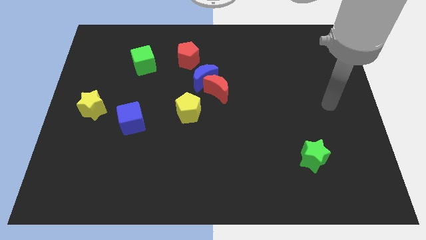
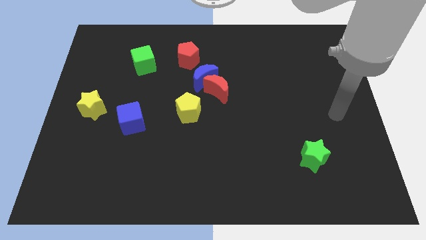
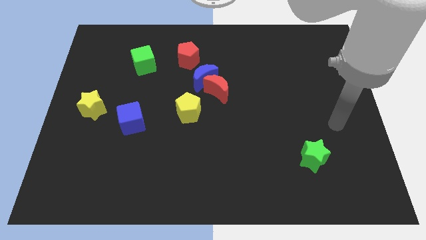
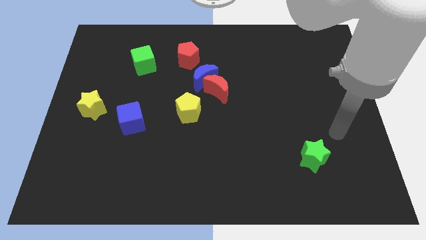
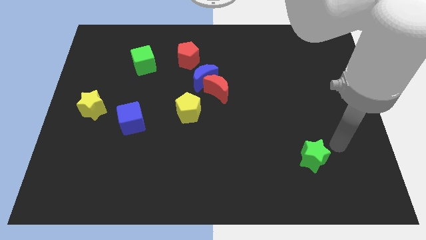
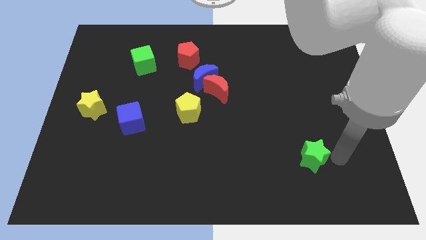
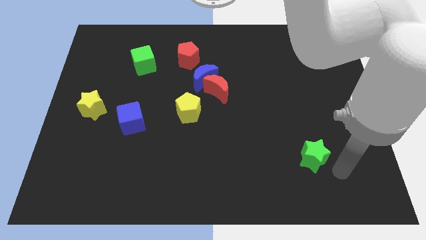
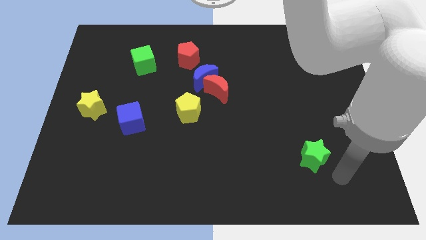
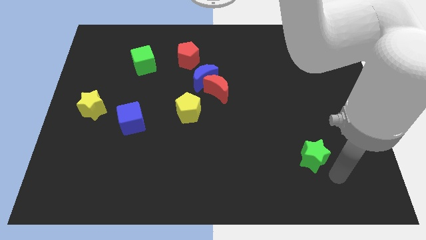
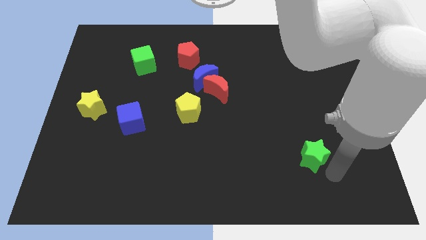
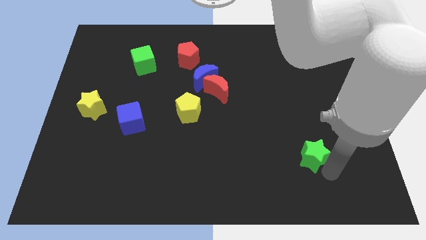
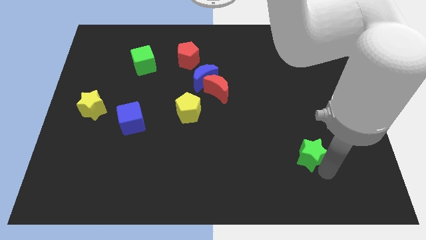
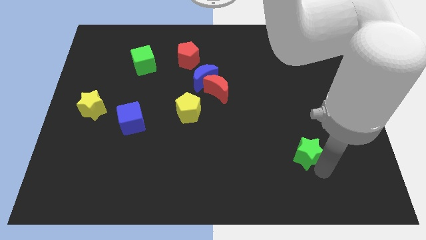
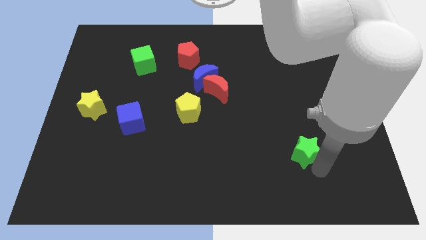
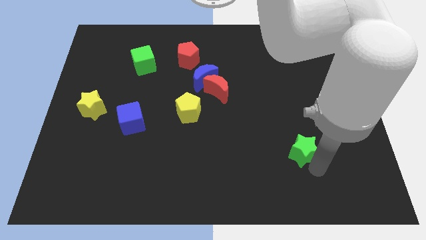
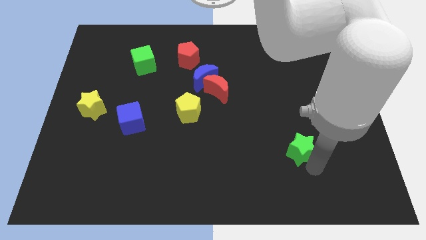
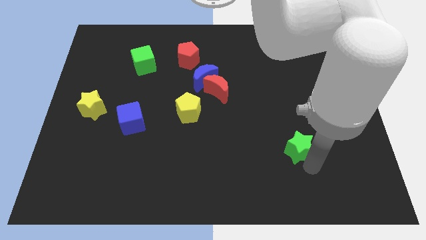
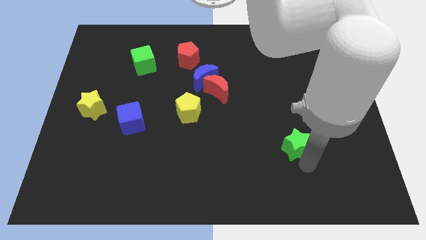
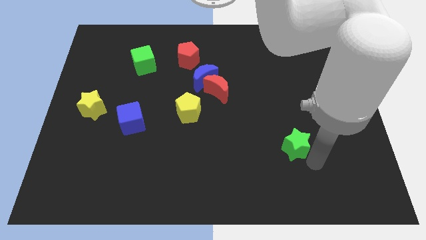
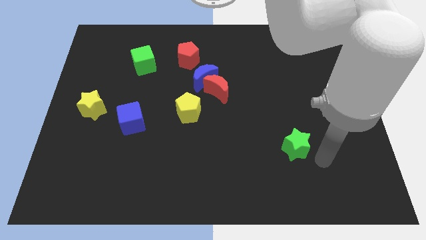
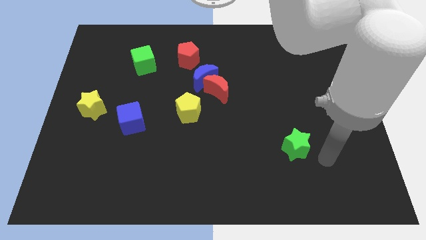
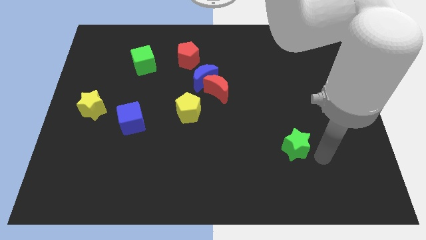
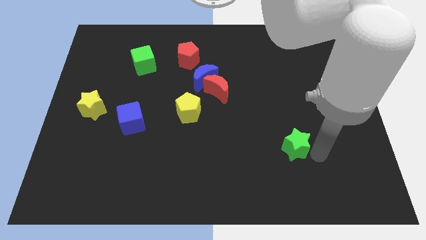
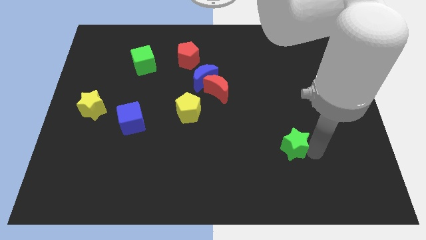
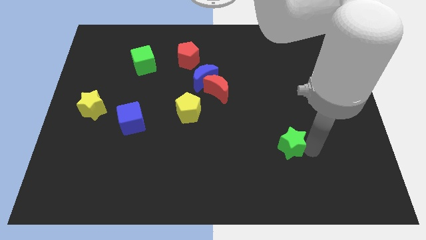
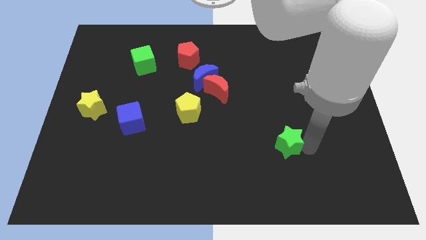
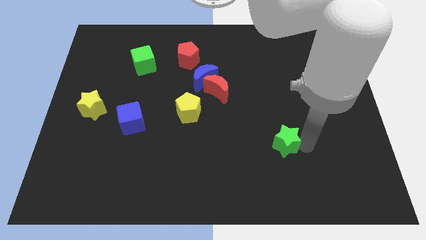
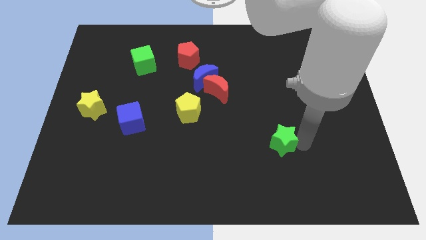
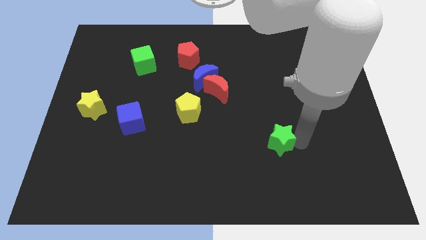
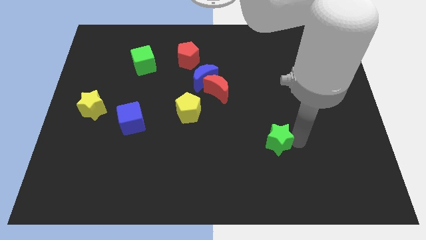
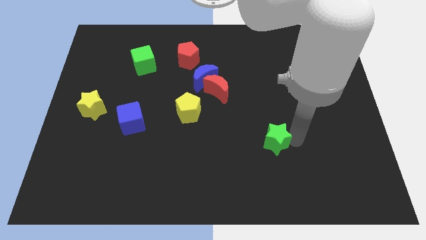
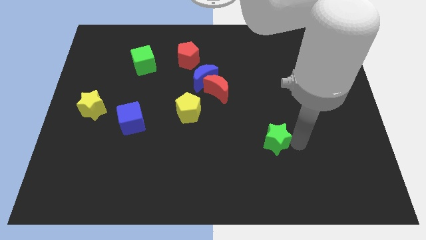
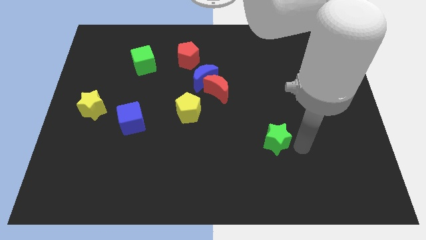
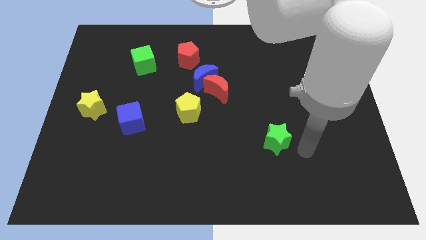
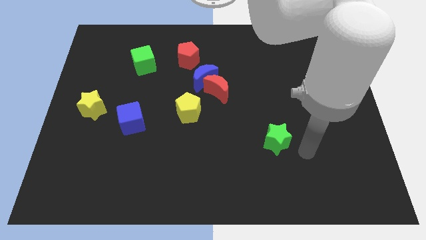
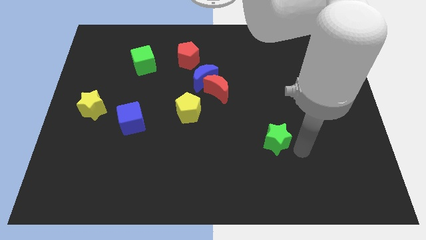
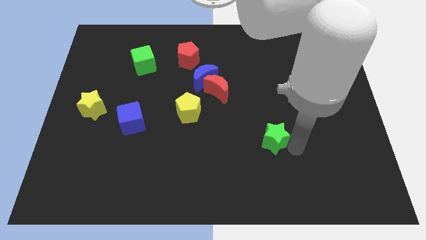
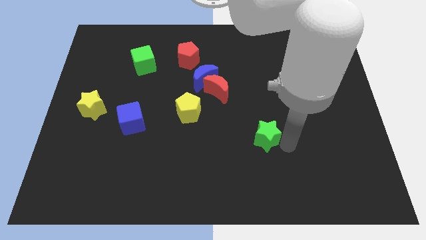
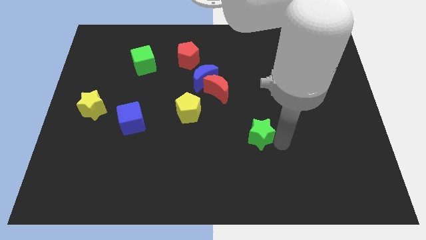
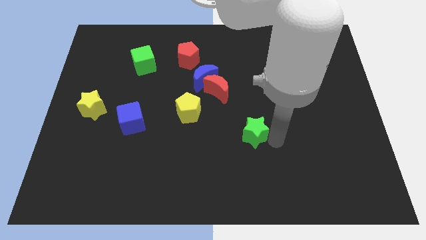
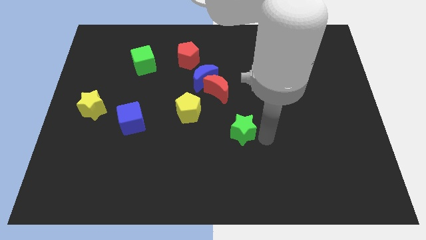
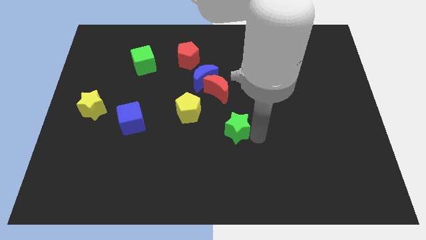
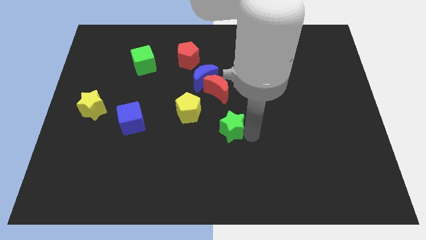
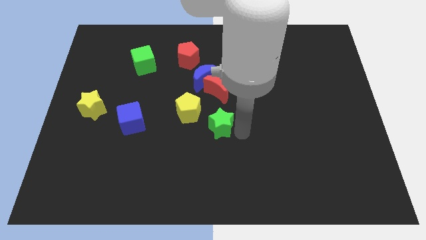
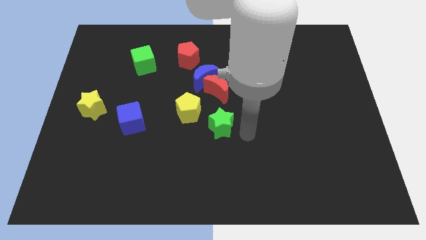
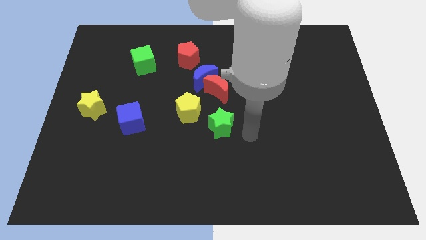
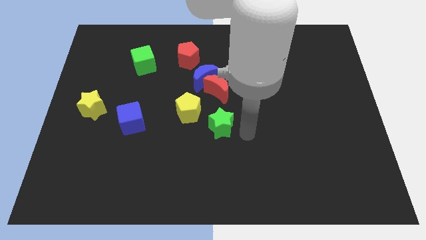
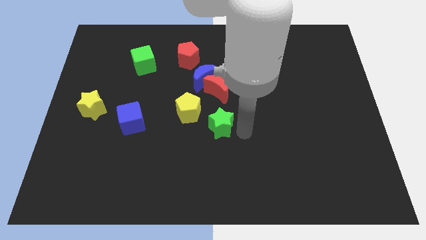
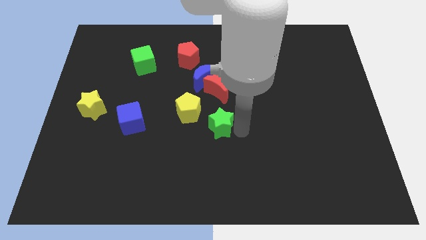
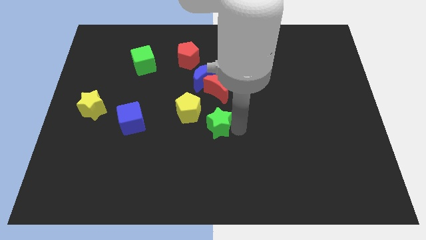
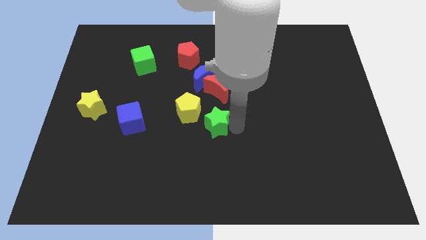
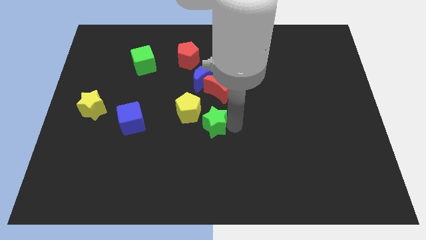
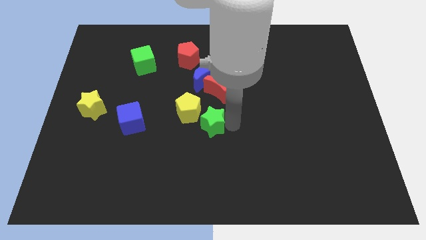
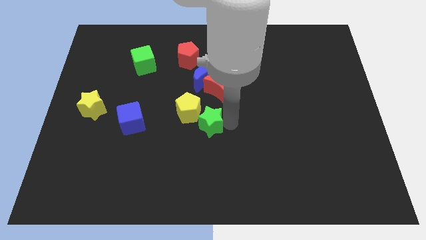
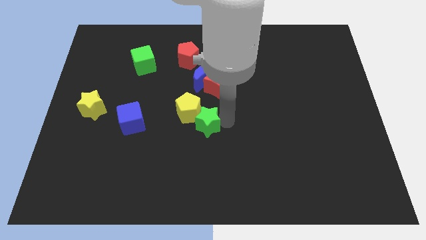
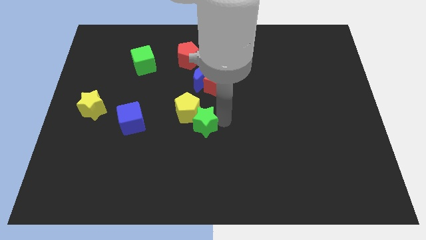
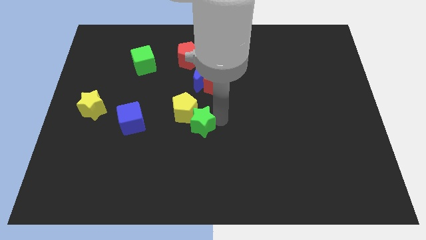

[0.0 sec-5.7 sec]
slide the green star right of the blue cube

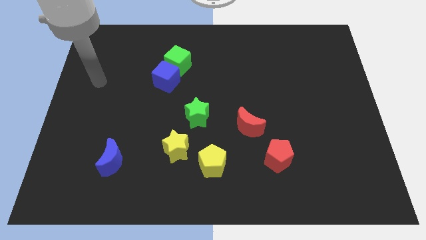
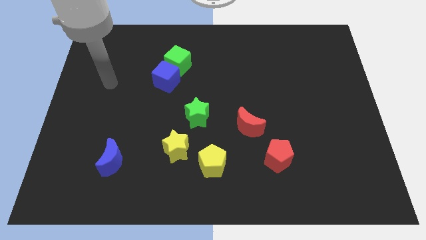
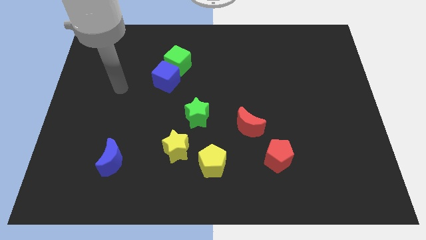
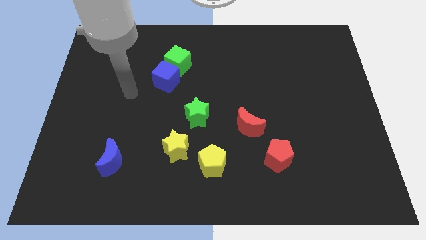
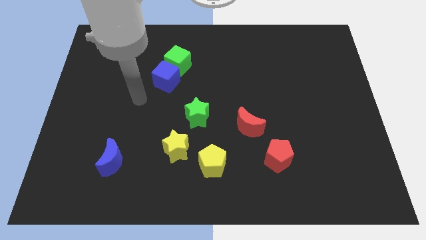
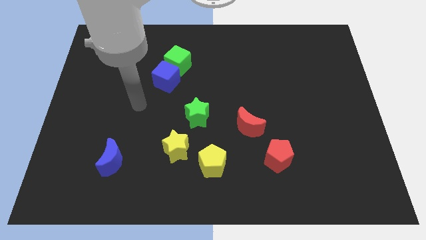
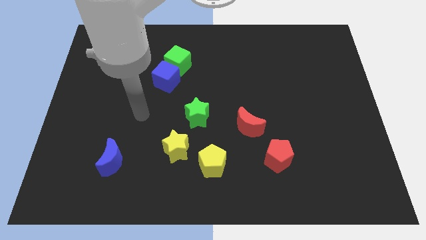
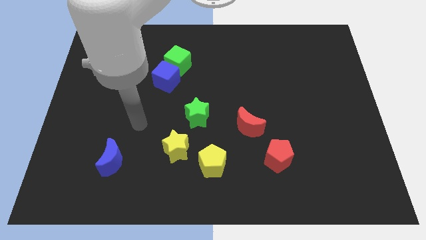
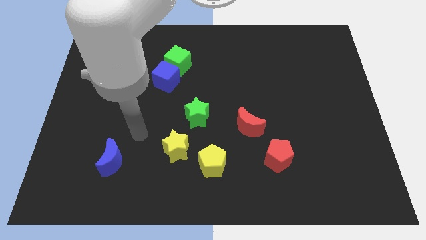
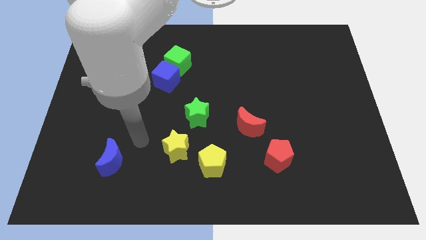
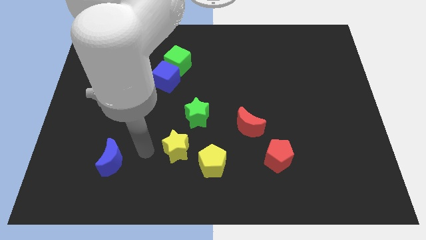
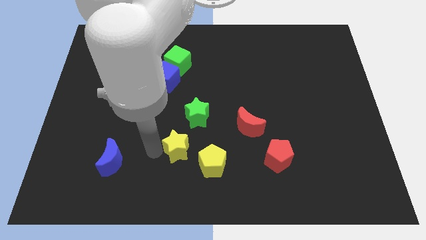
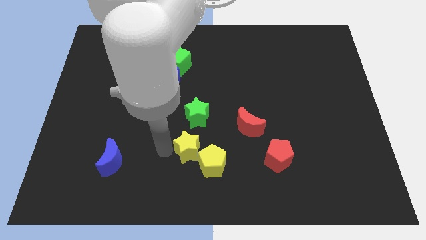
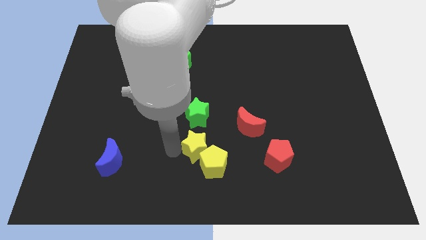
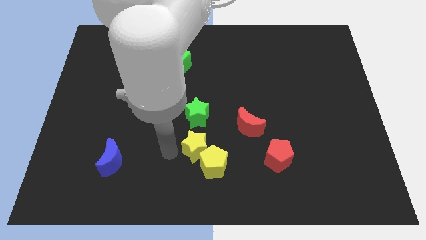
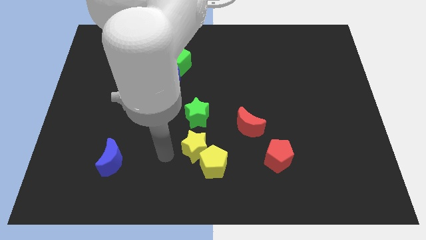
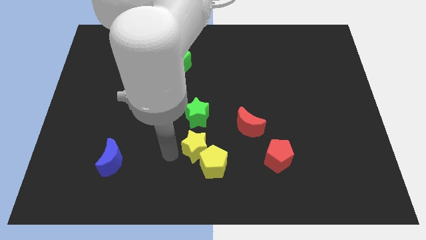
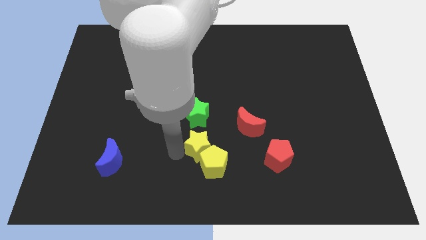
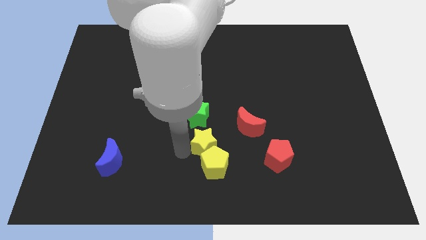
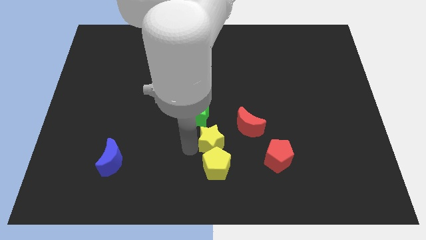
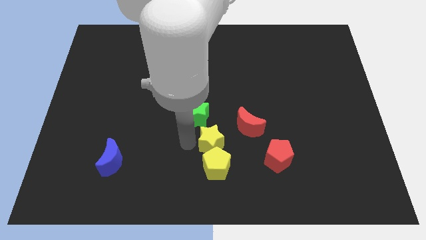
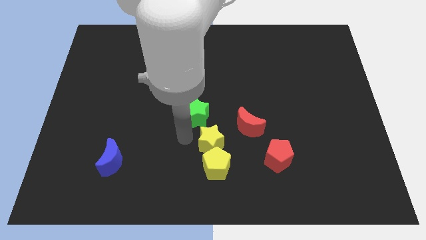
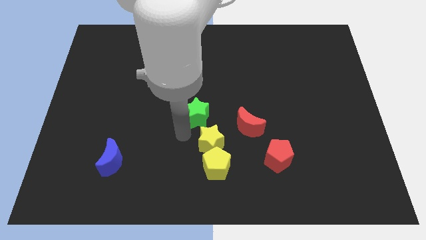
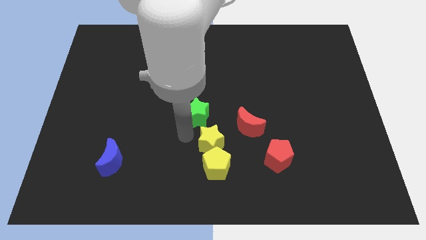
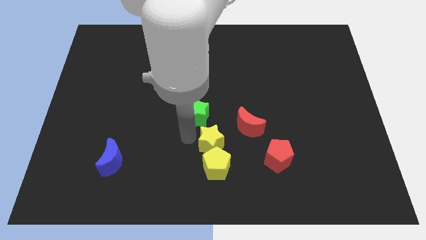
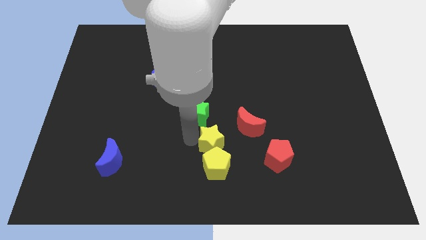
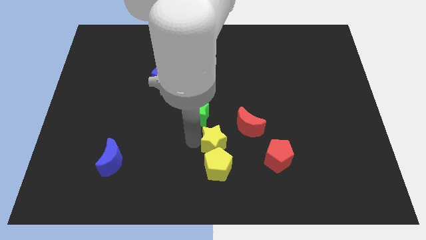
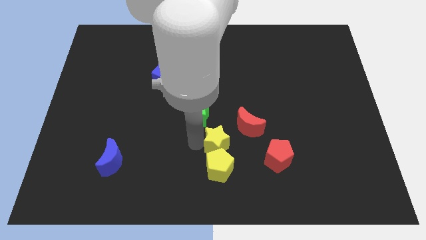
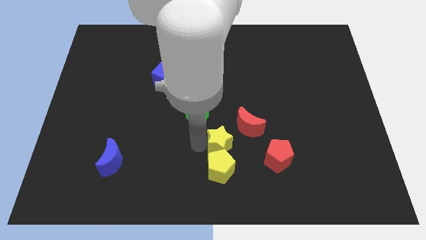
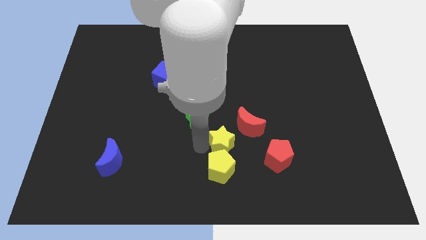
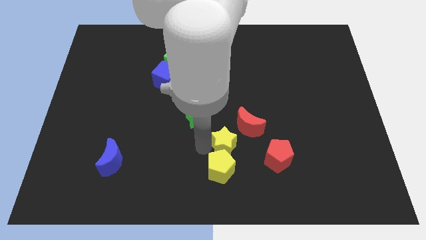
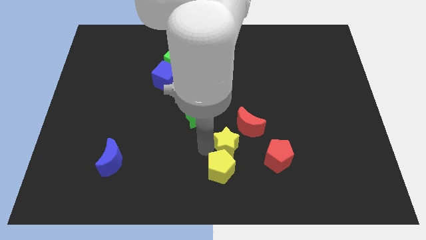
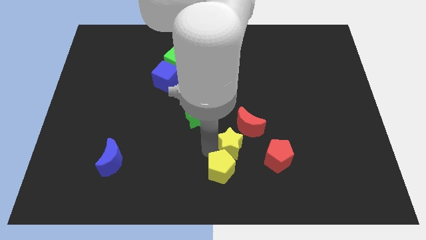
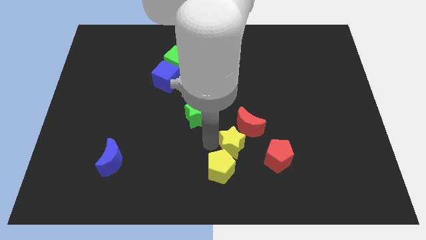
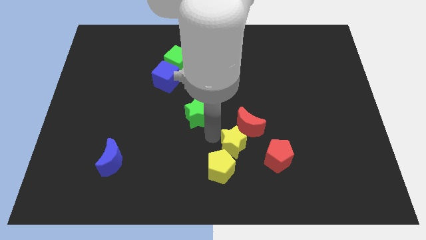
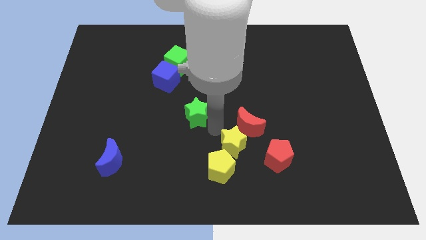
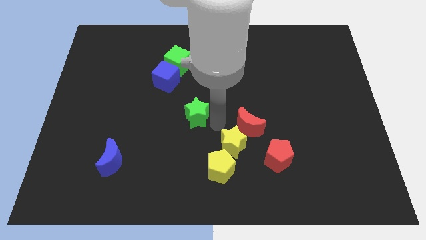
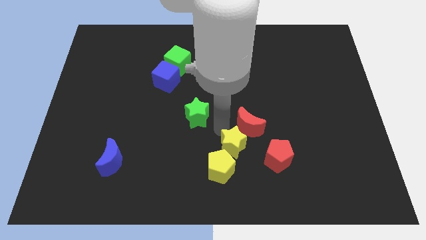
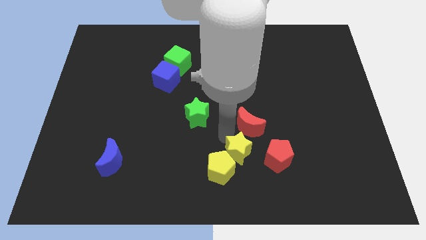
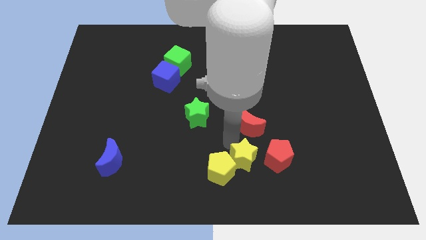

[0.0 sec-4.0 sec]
move the yellow star diagonally down and to the left of the red pentagon
